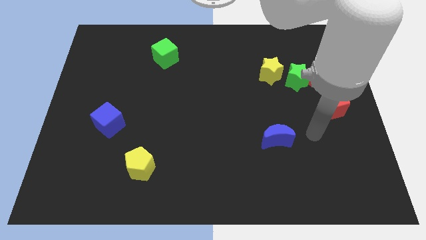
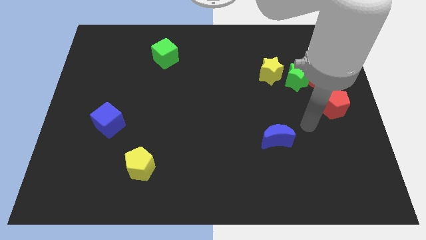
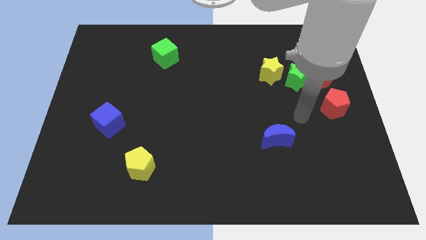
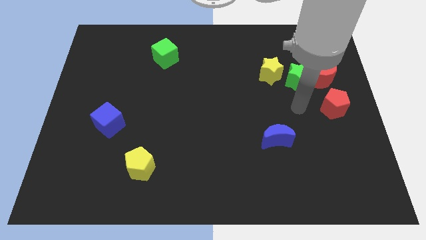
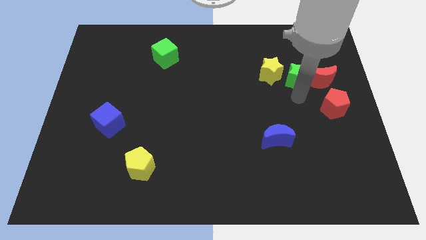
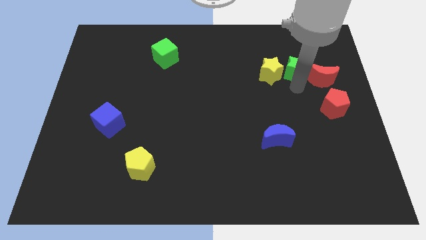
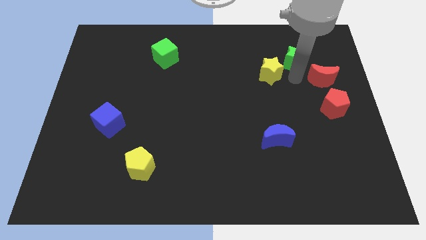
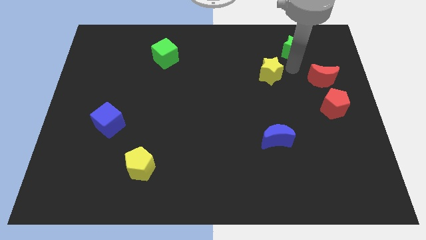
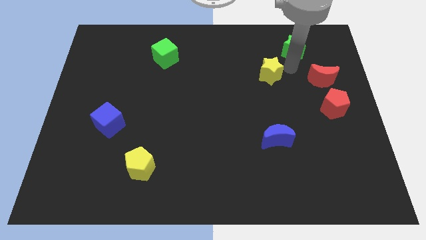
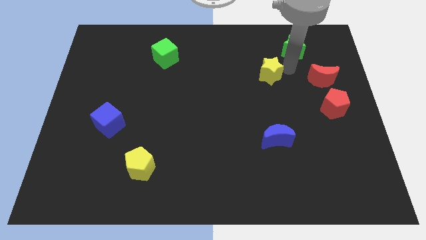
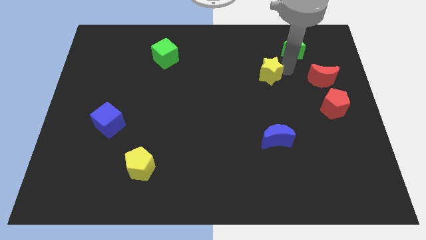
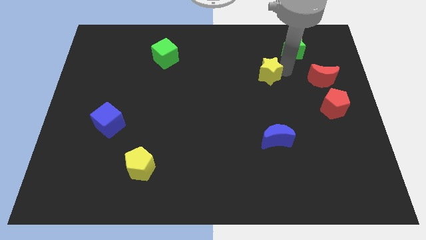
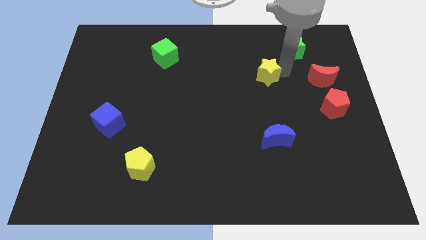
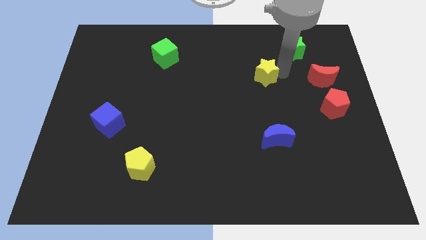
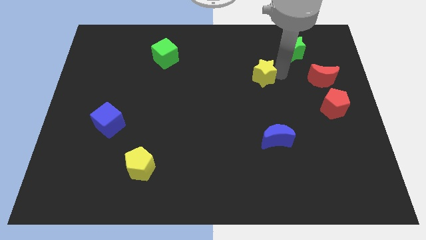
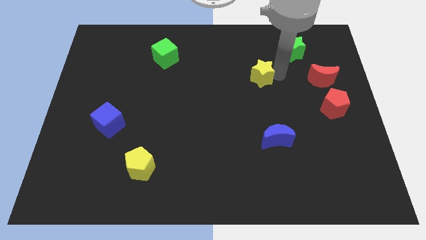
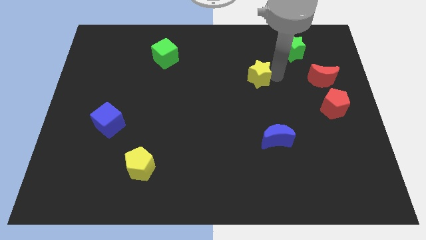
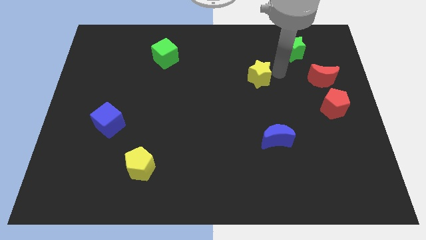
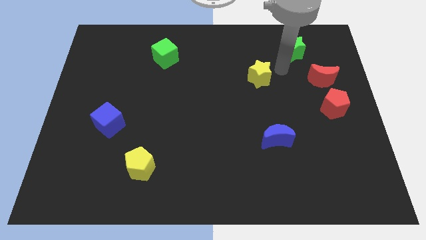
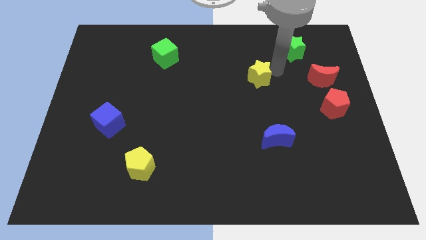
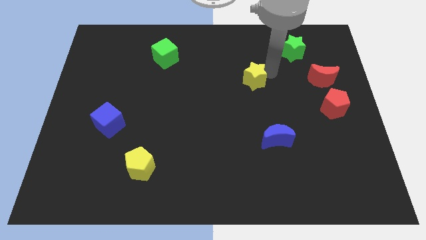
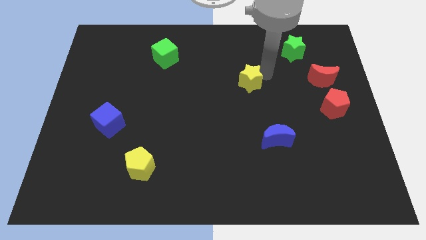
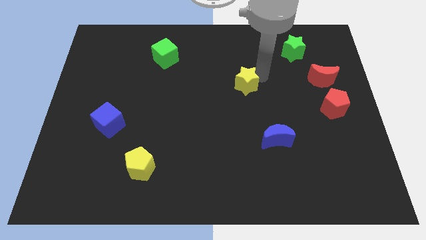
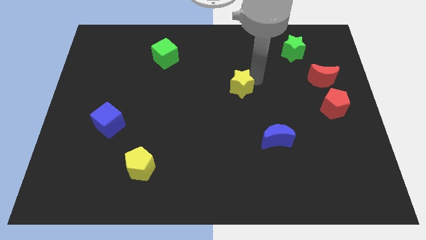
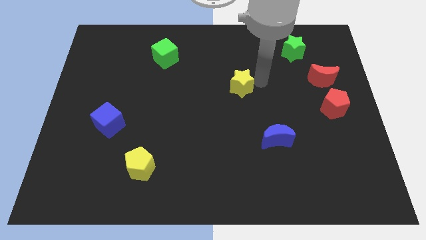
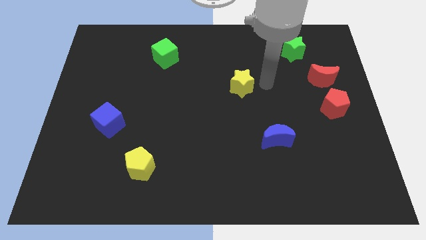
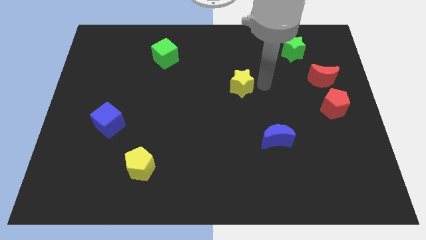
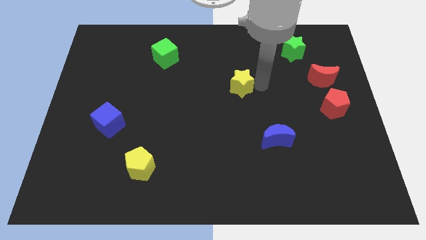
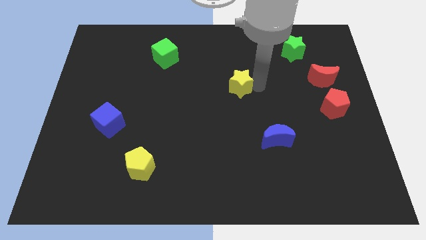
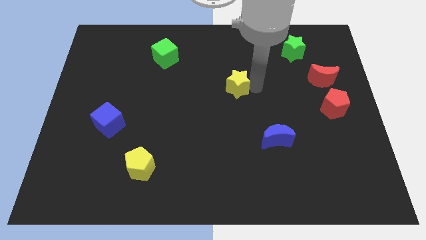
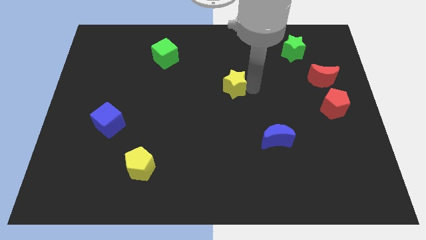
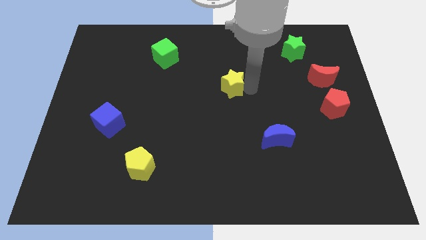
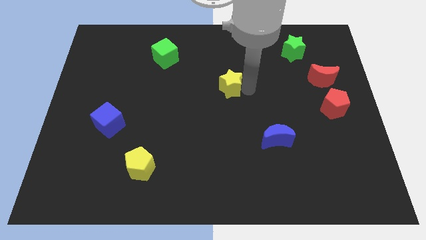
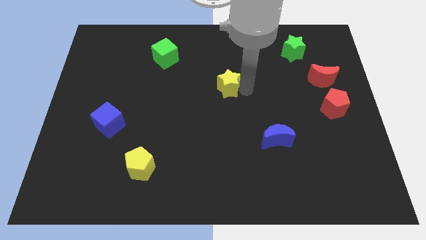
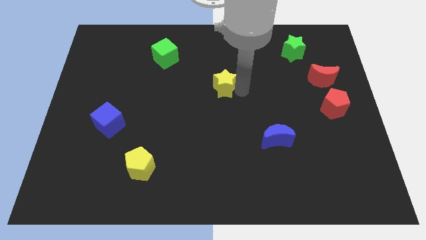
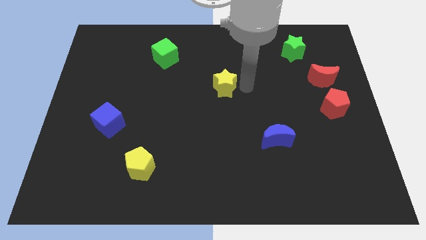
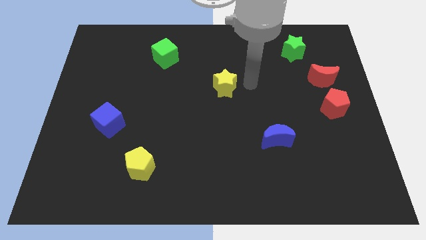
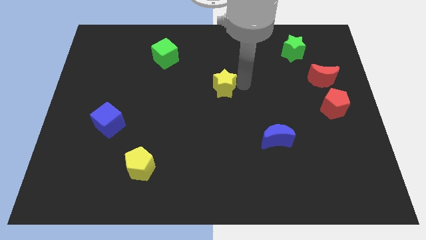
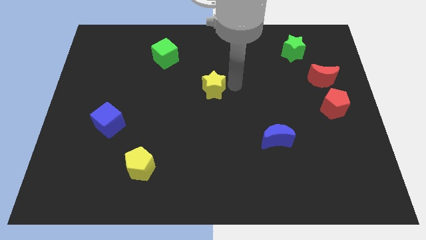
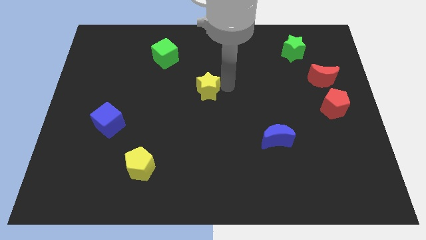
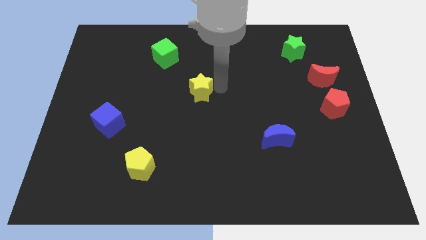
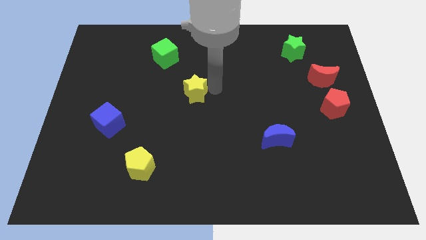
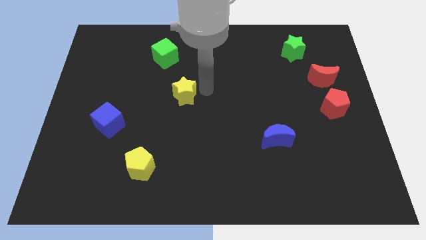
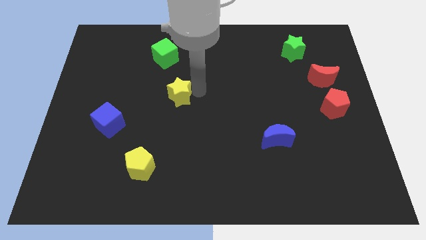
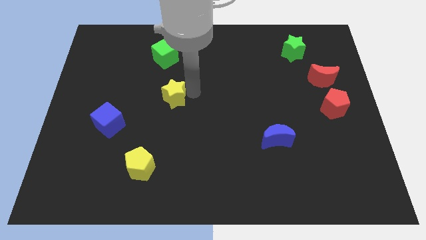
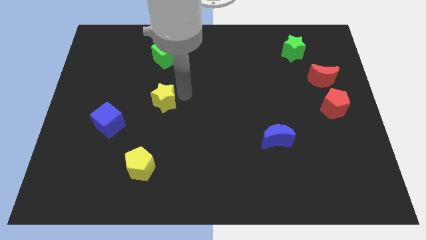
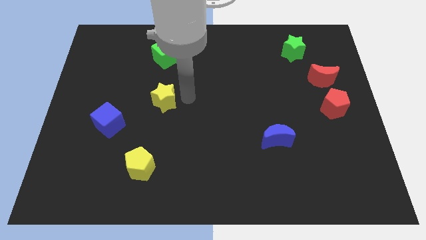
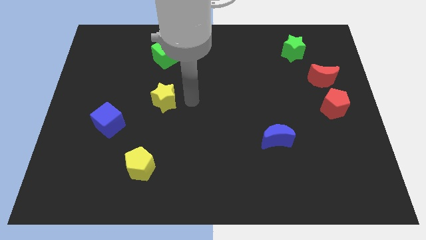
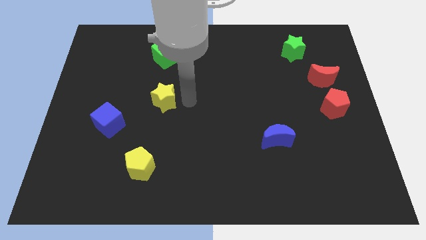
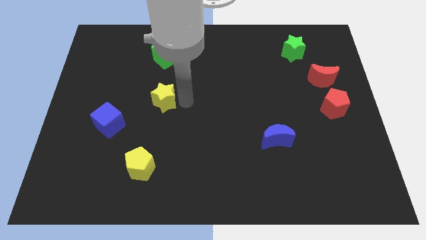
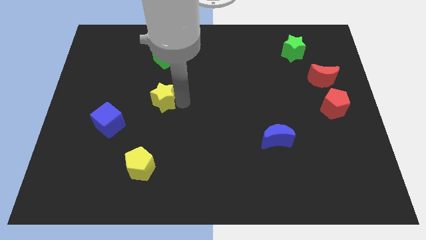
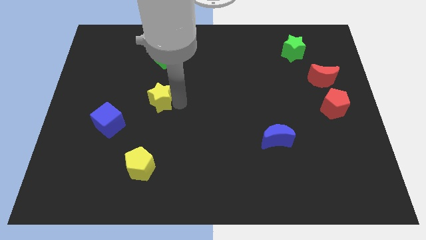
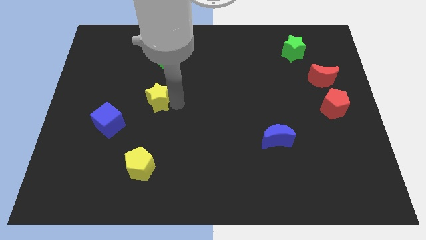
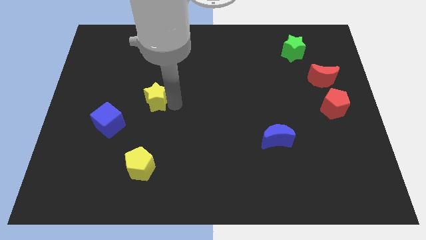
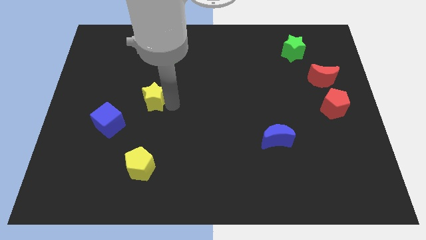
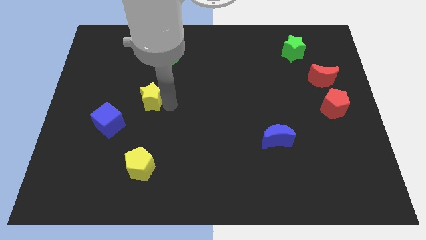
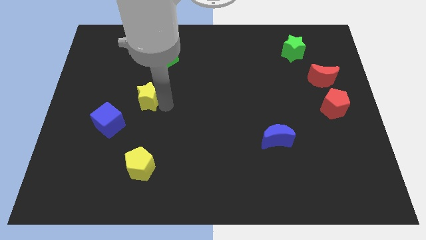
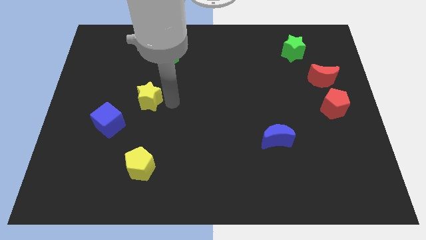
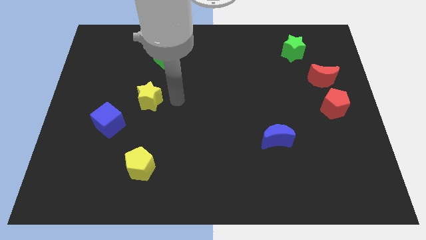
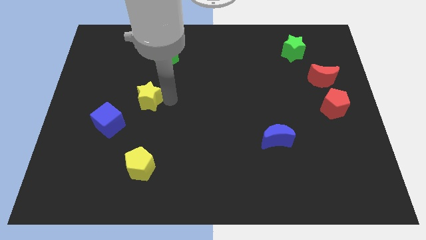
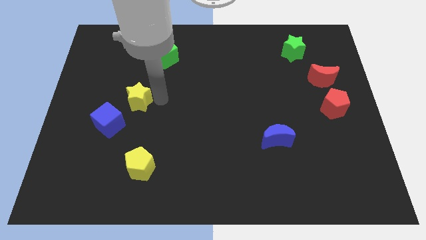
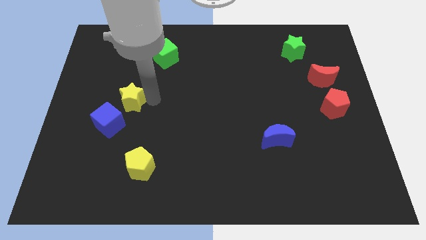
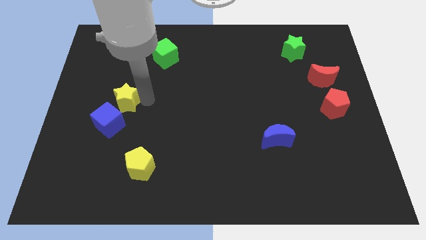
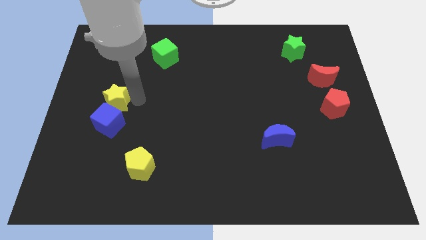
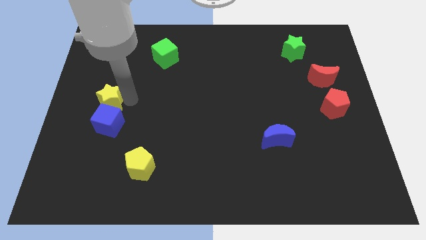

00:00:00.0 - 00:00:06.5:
push the yellow star to the top left of the blue cube

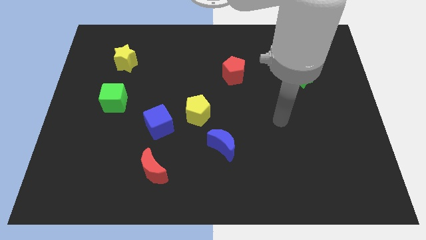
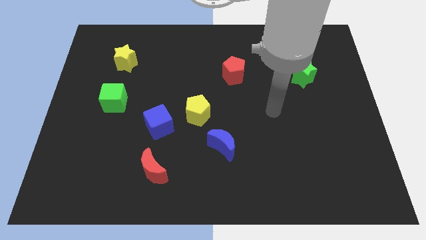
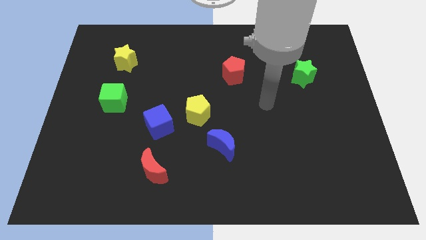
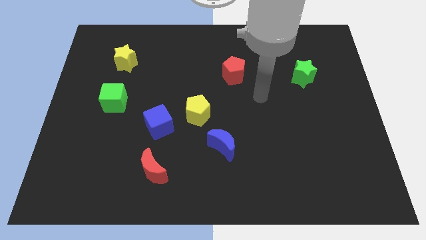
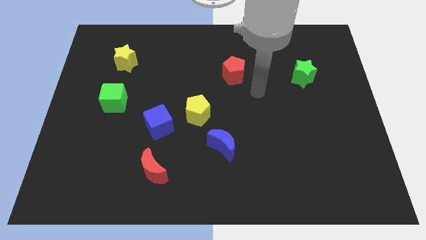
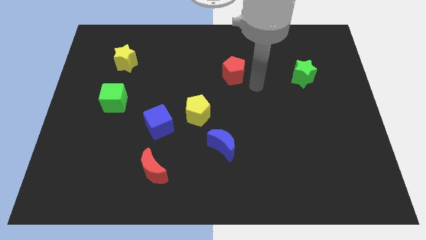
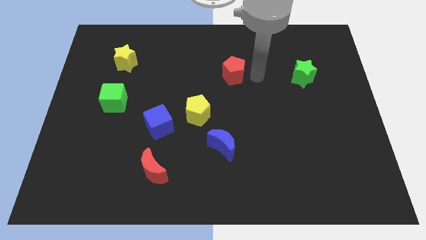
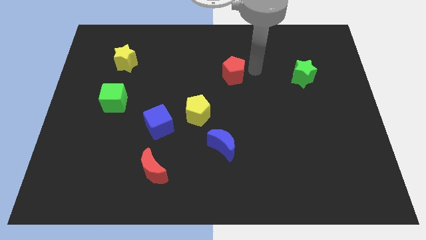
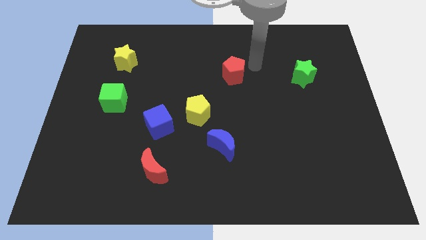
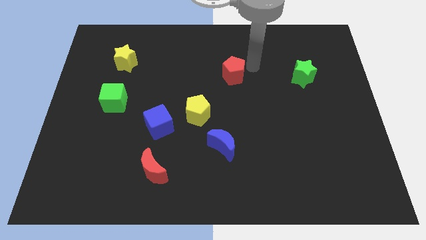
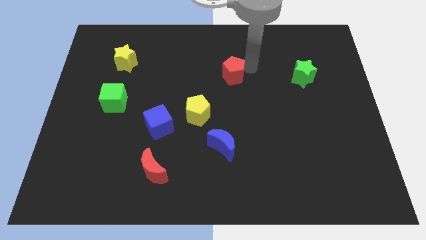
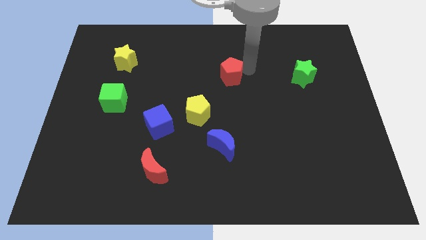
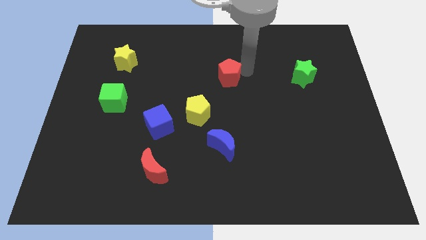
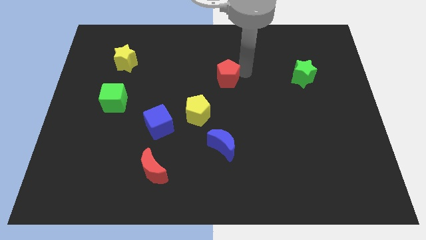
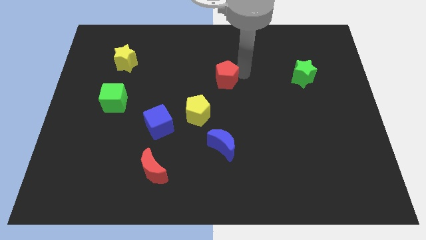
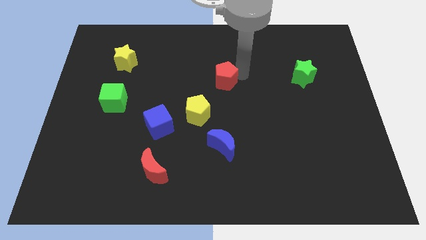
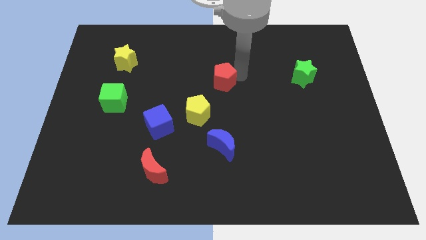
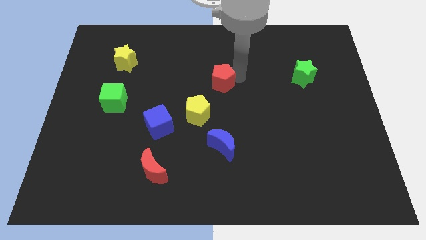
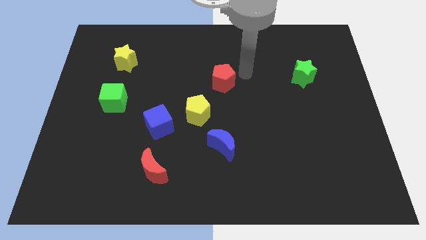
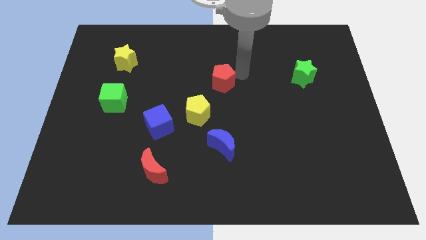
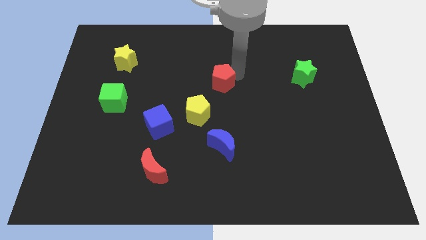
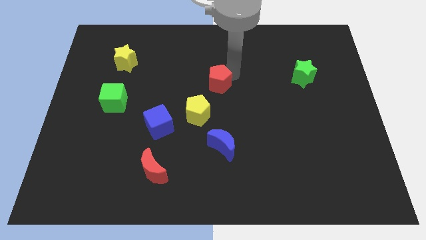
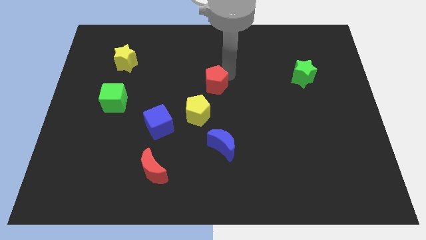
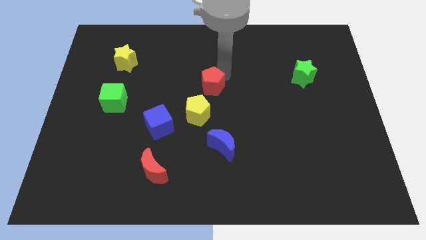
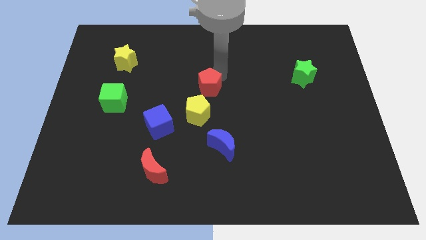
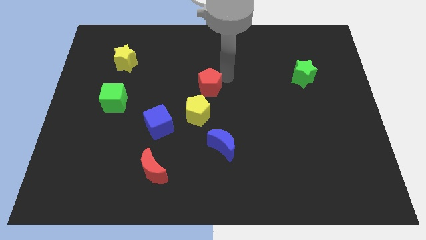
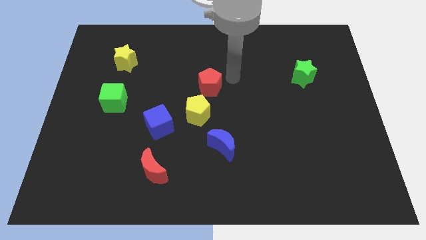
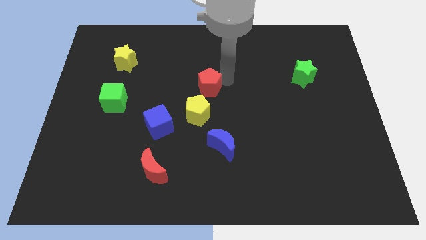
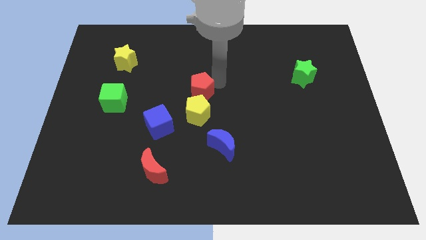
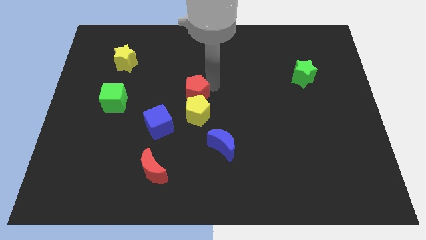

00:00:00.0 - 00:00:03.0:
slide the red pentagon to the top left side of the yellow pentagon
